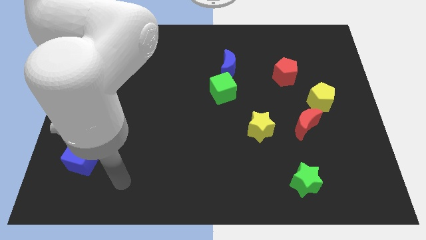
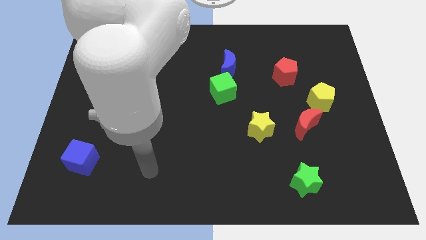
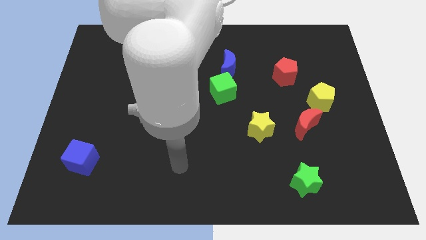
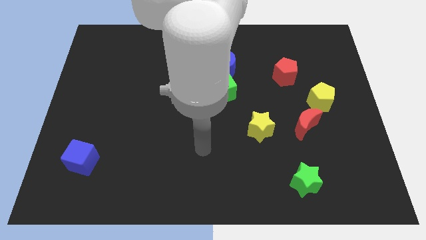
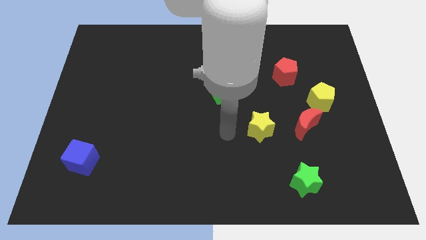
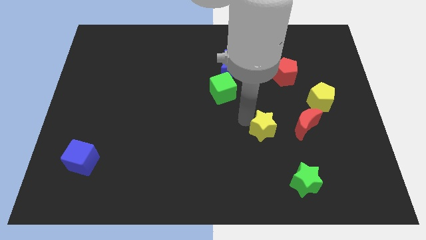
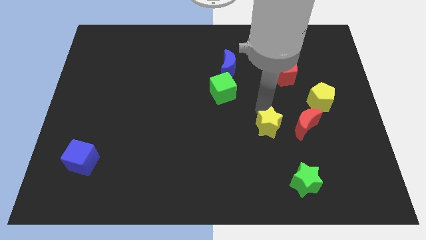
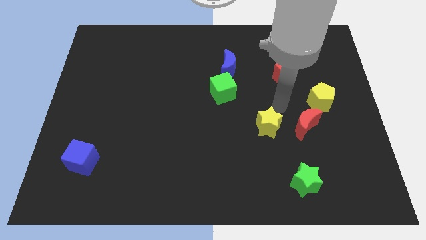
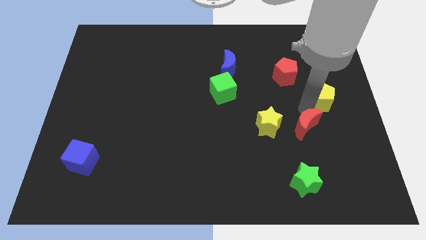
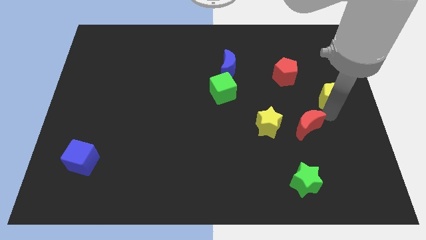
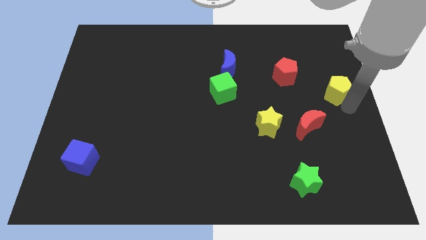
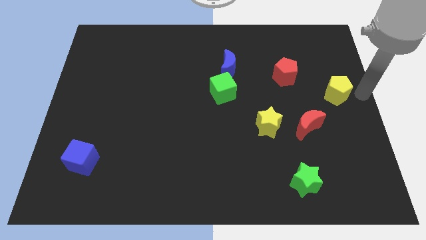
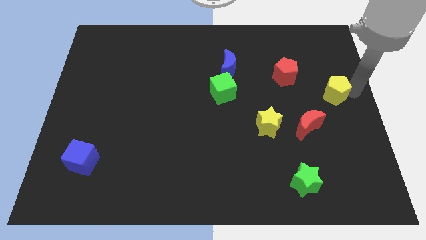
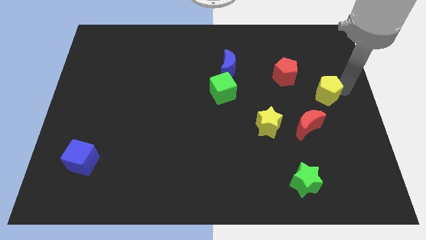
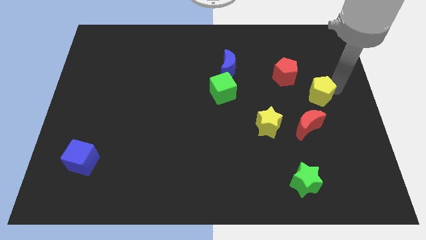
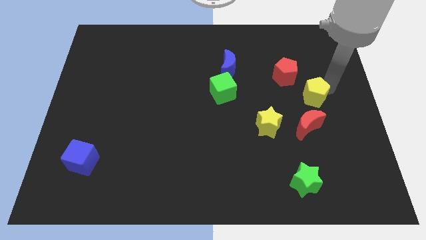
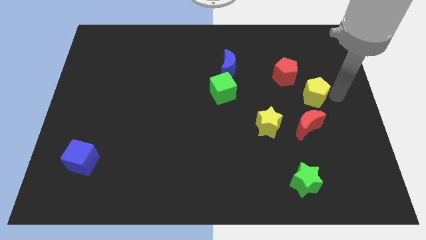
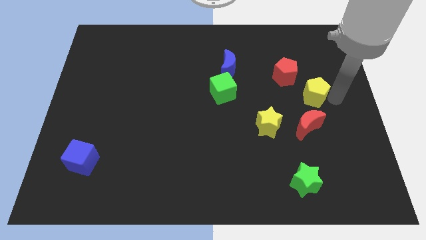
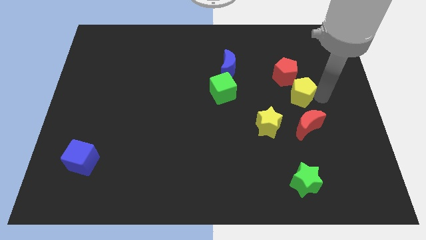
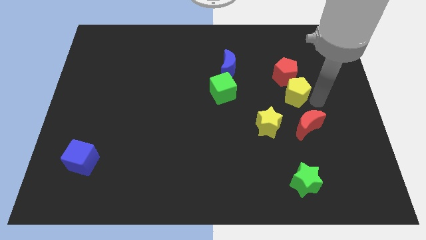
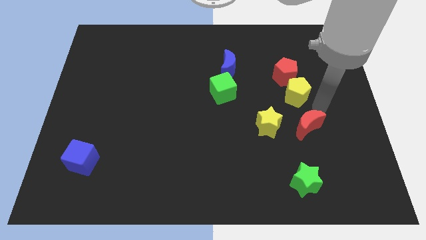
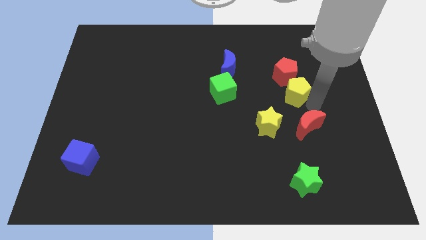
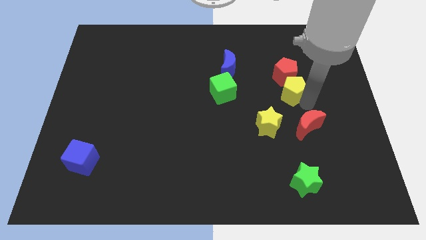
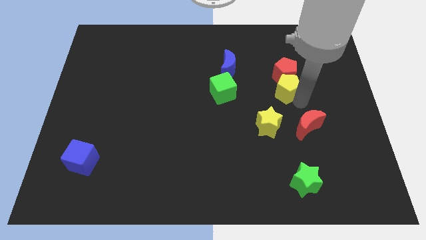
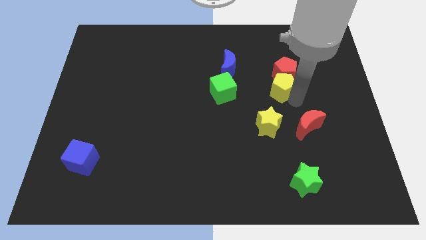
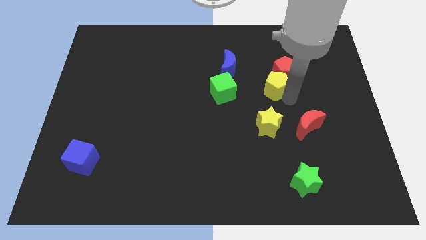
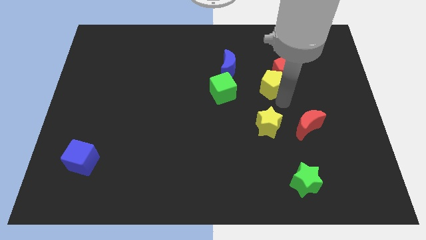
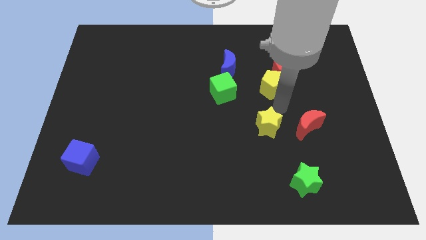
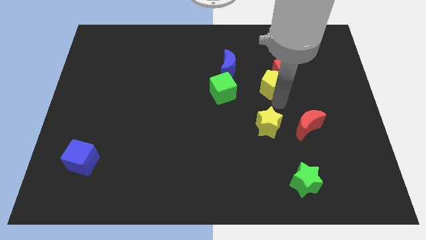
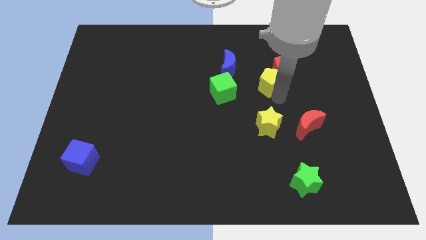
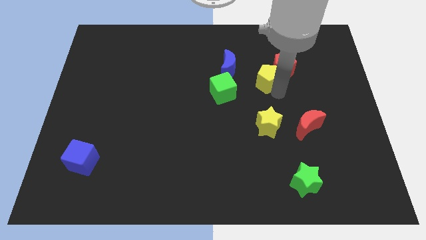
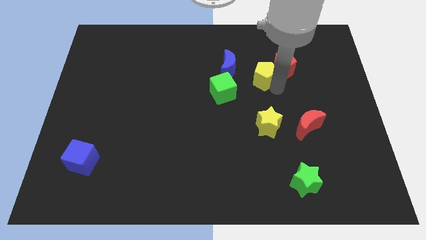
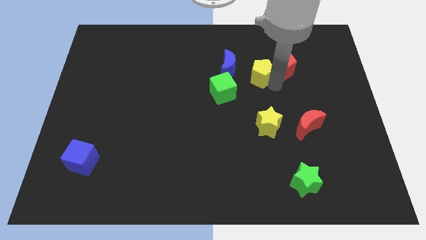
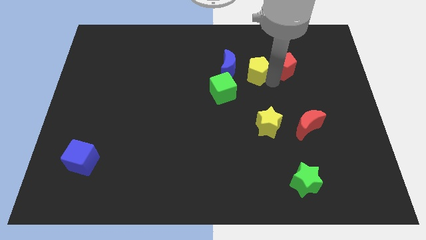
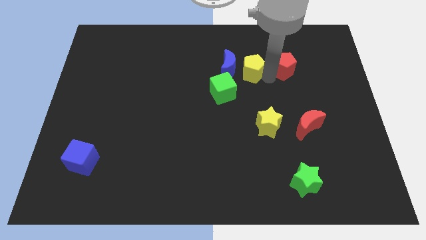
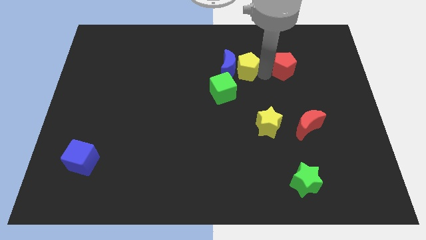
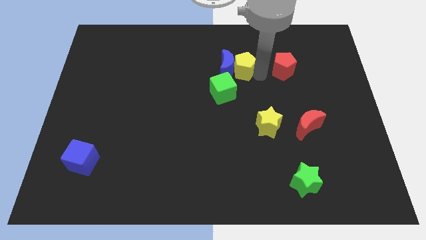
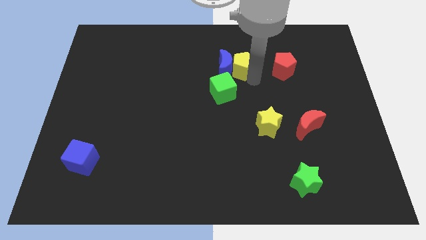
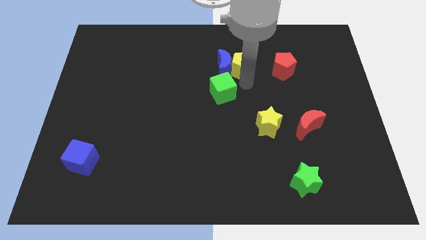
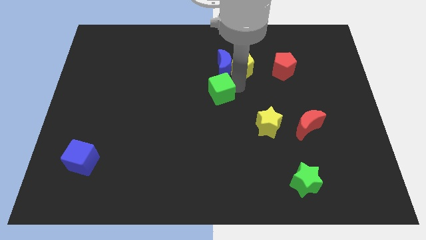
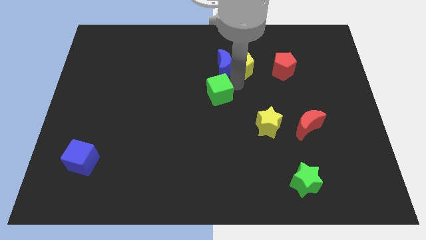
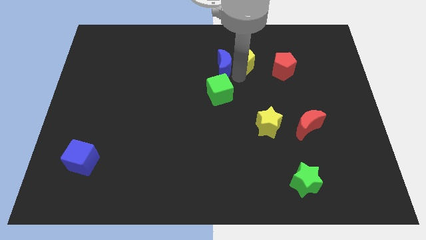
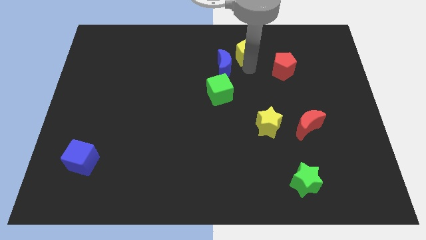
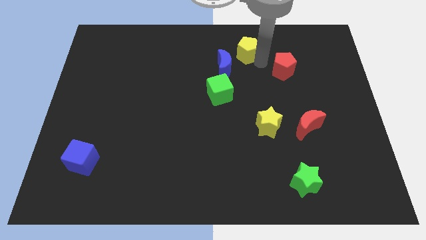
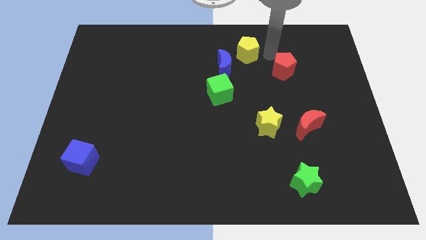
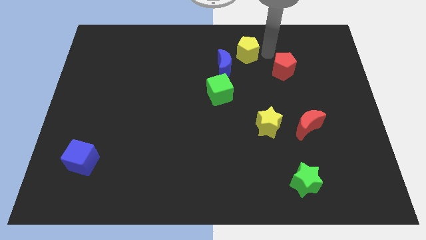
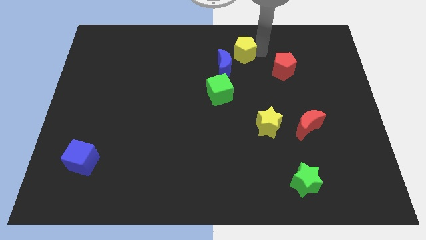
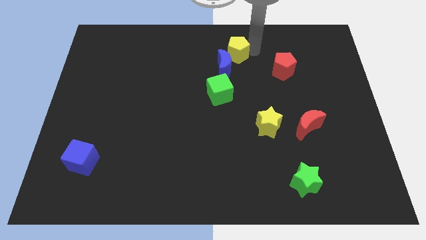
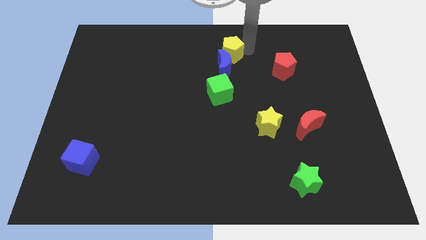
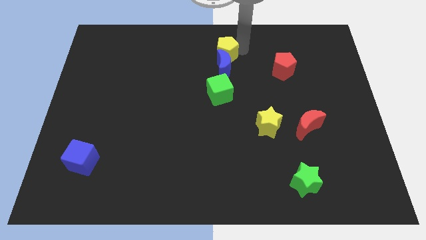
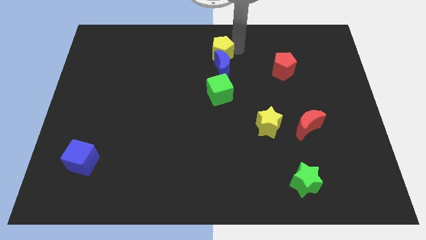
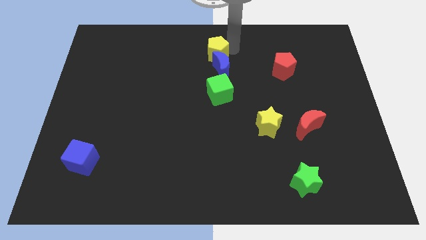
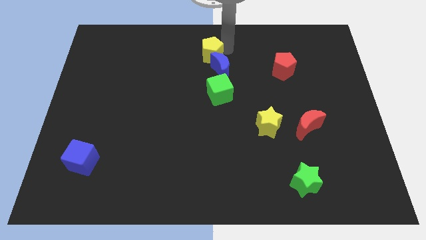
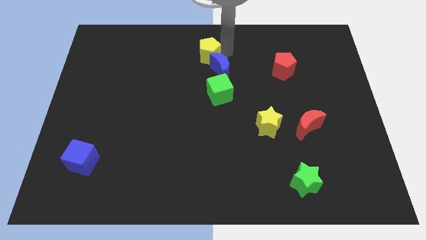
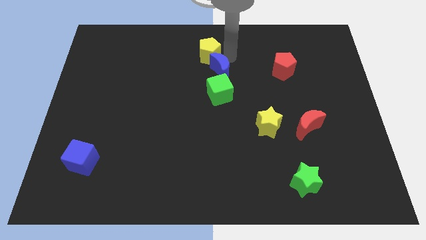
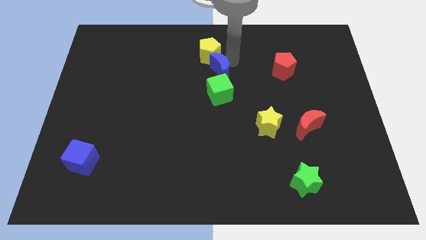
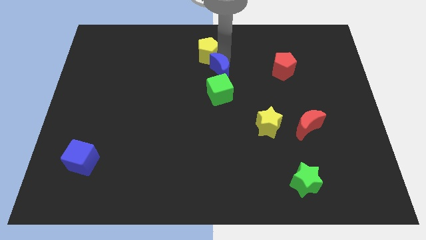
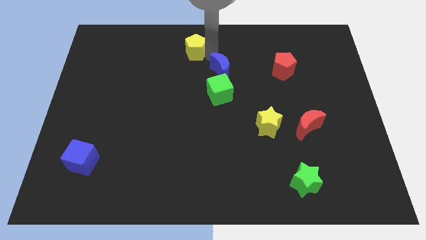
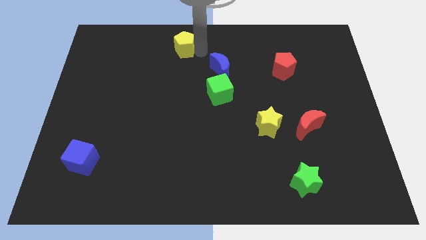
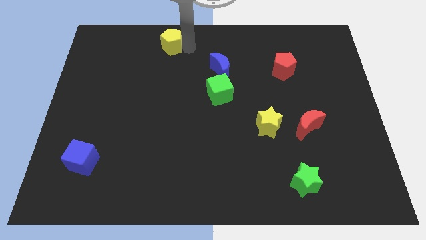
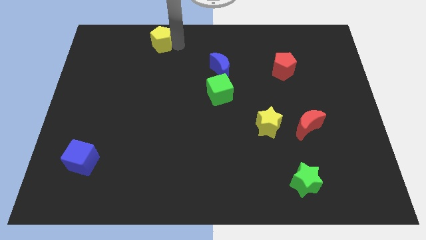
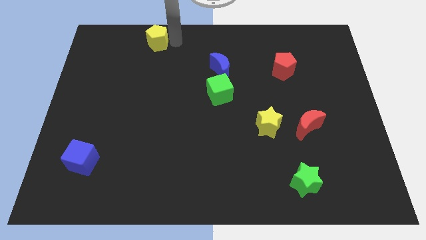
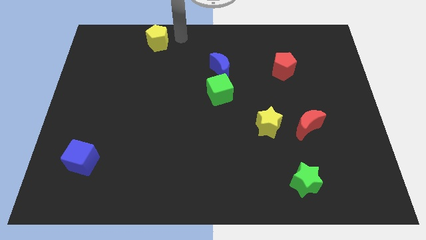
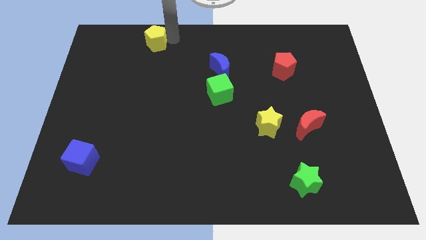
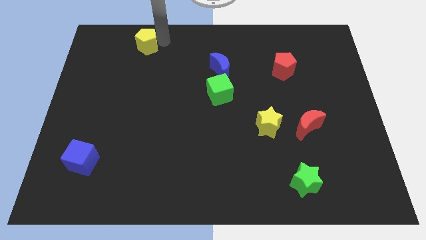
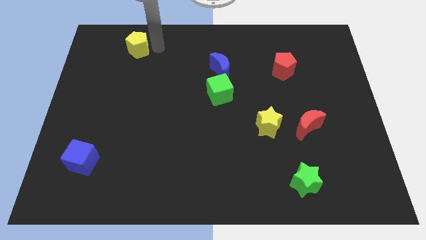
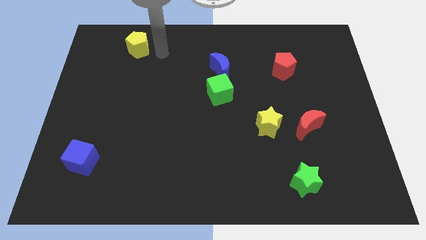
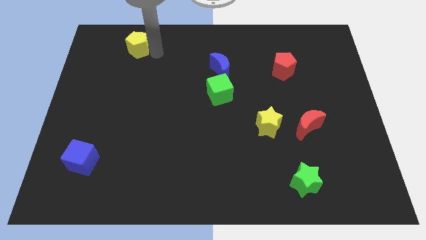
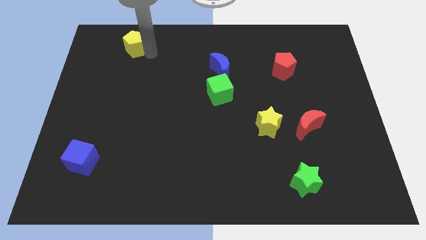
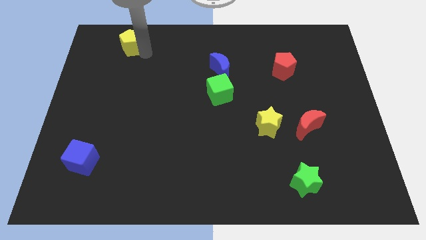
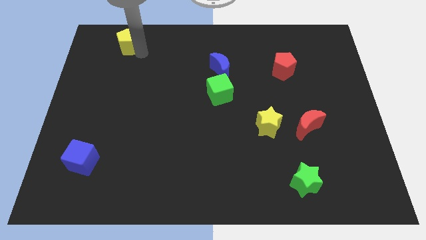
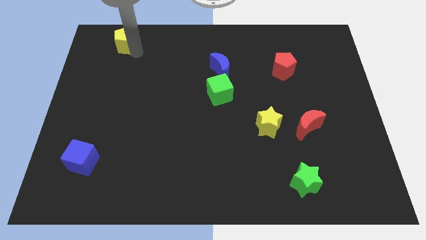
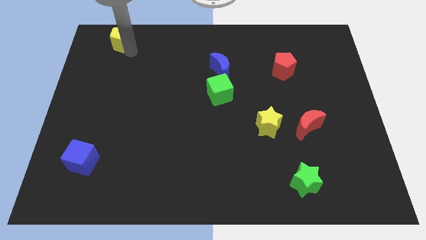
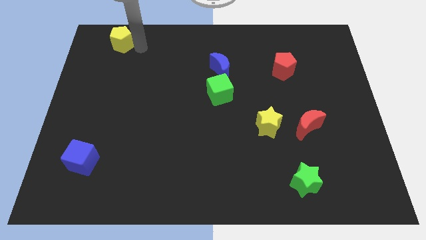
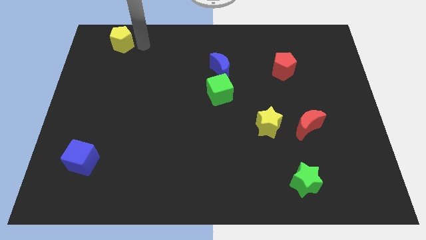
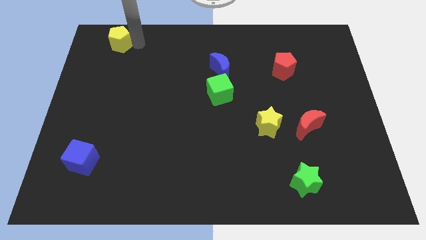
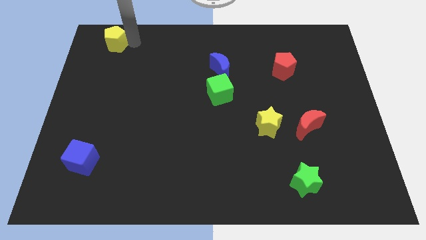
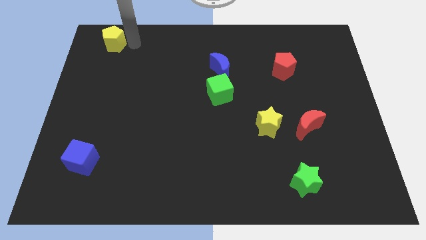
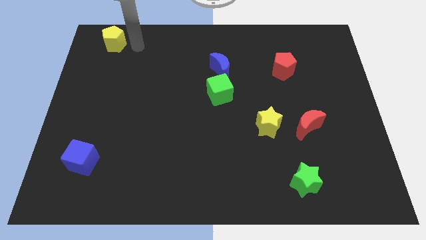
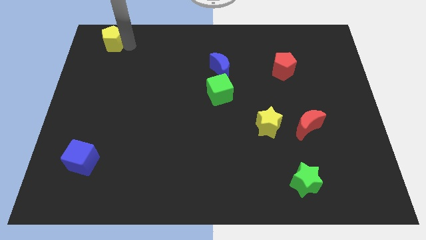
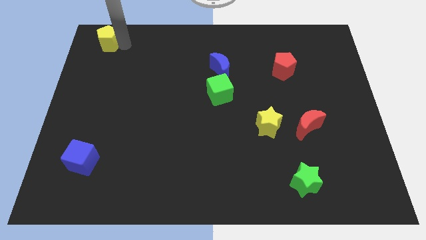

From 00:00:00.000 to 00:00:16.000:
slide the yellow pentagon to the upper left corner
